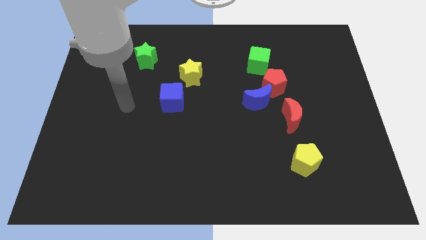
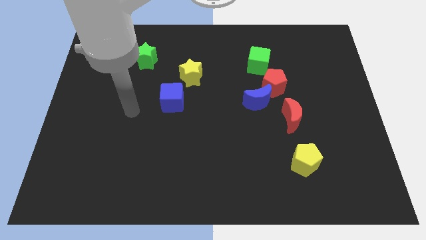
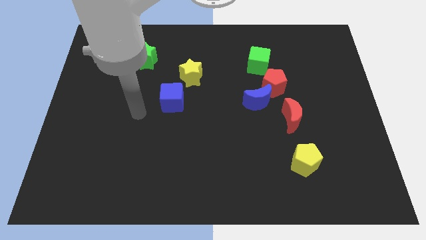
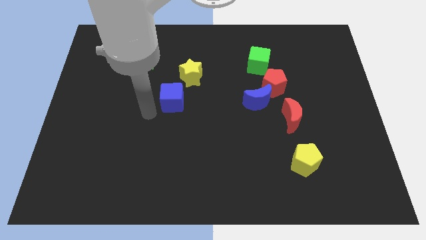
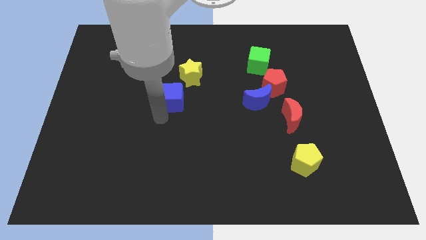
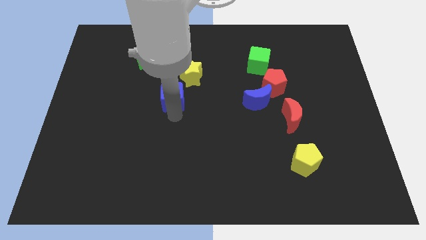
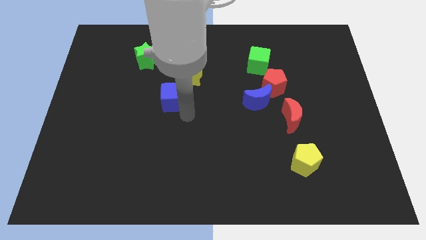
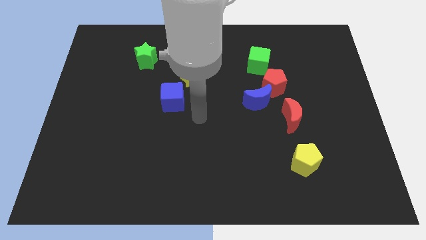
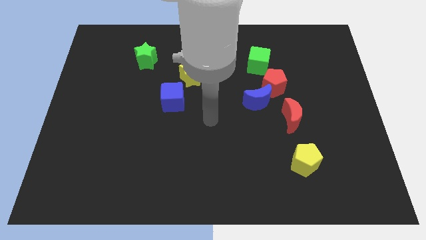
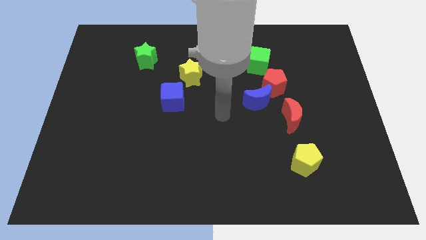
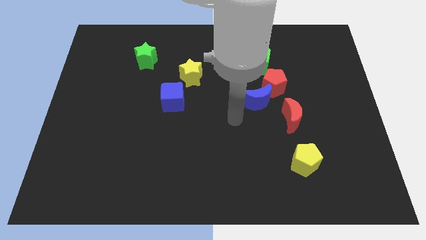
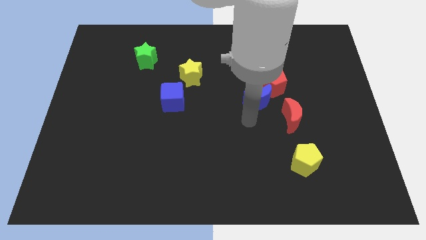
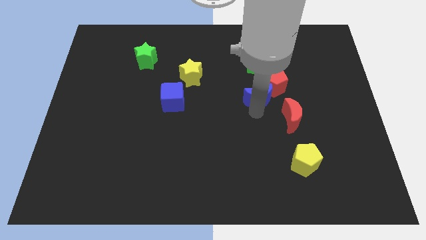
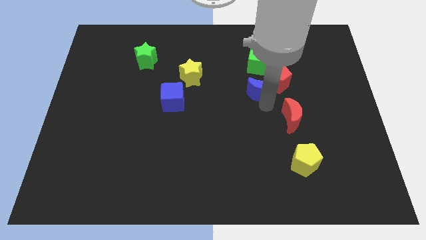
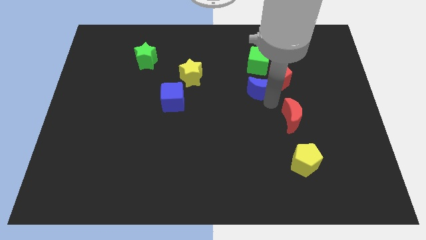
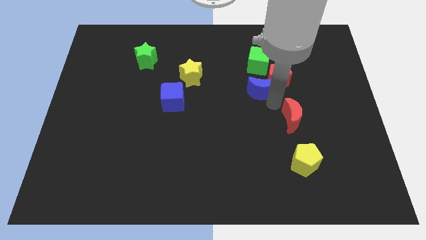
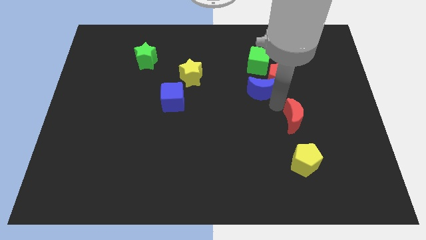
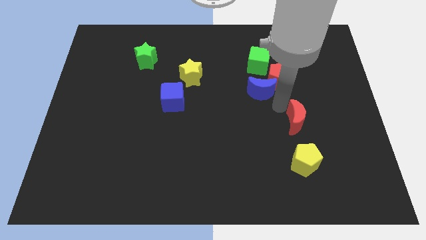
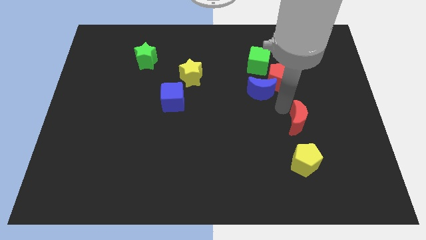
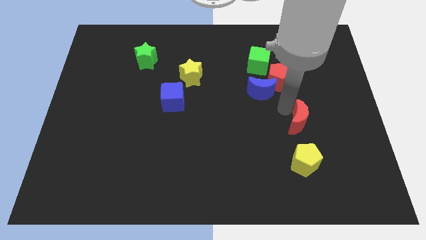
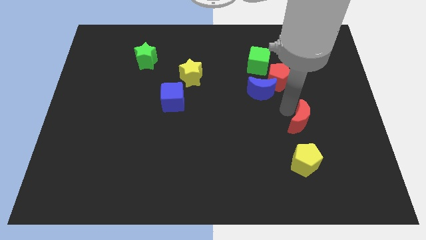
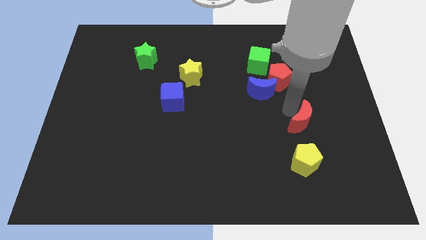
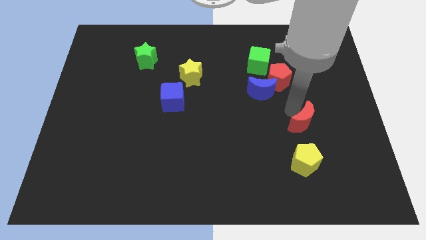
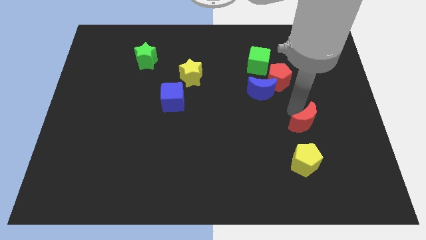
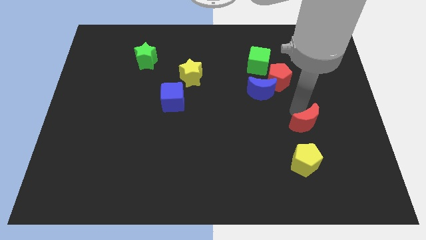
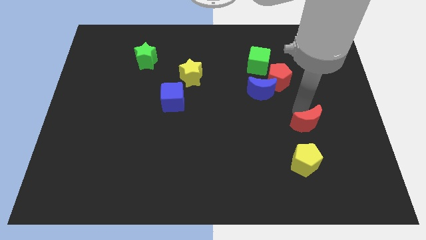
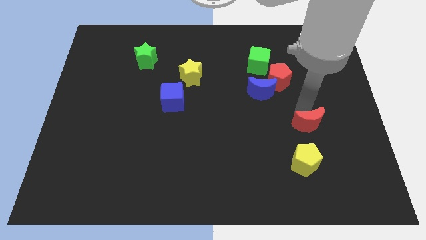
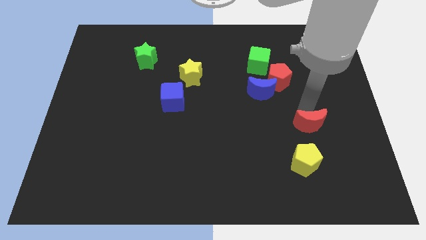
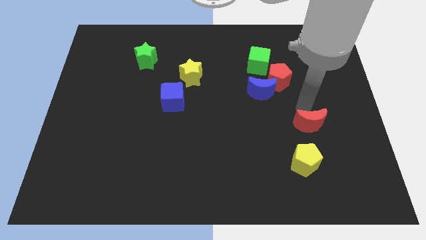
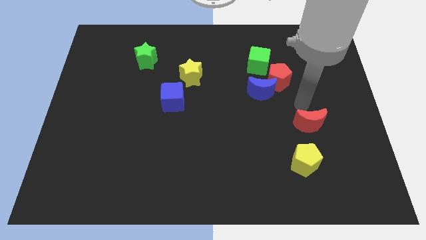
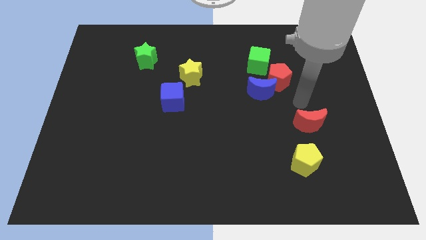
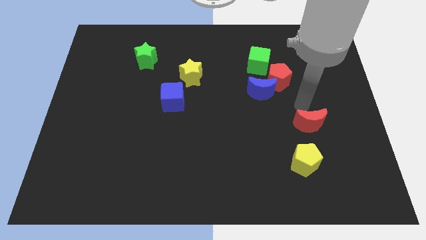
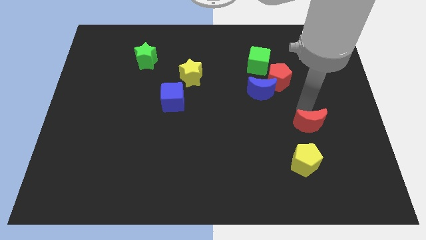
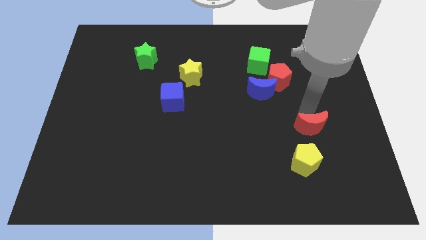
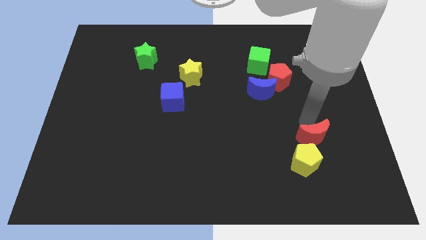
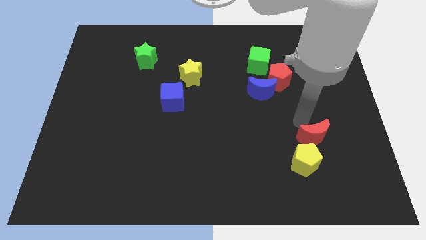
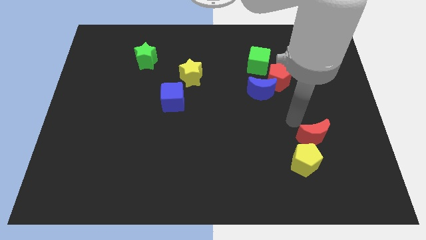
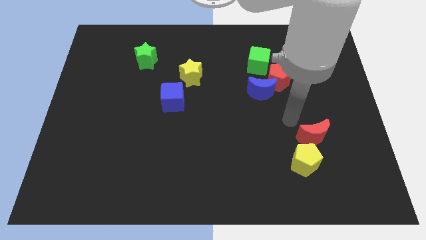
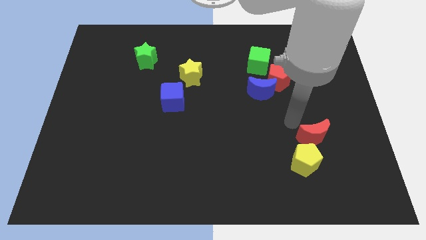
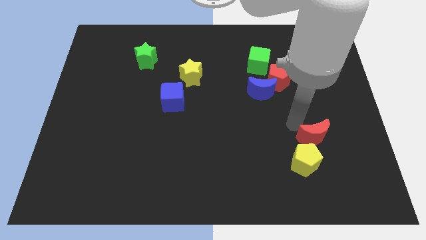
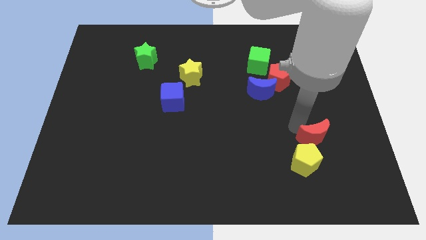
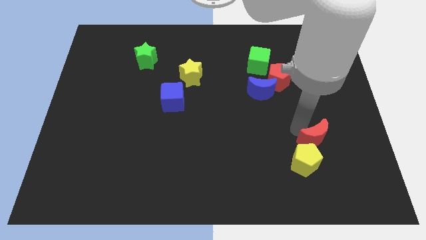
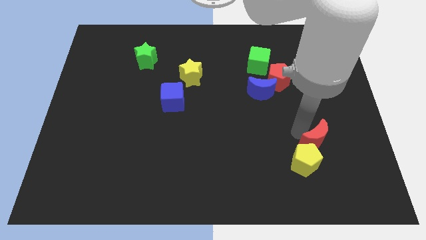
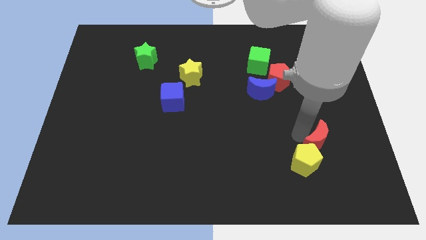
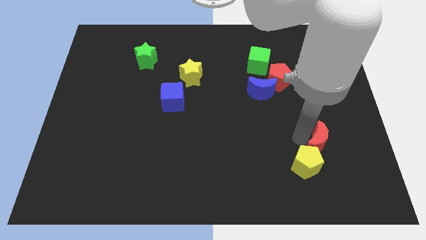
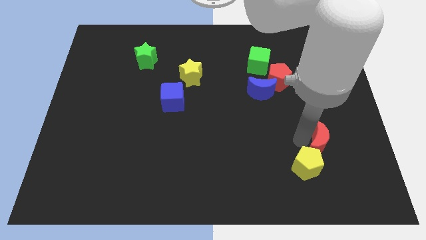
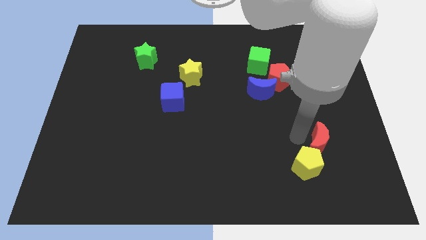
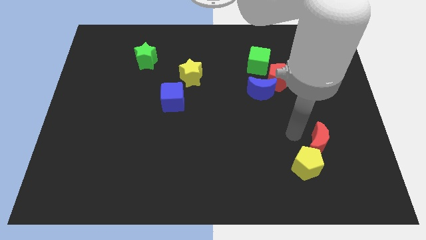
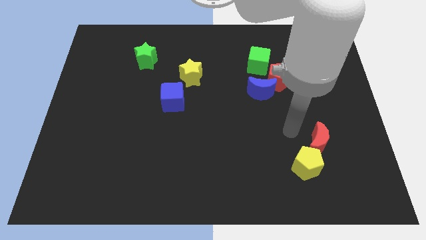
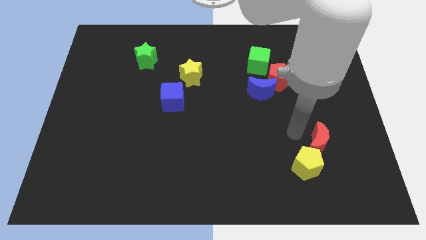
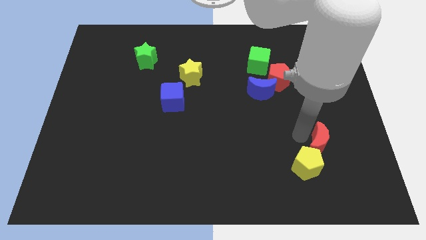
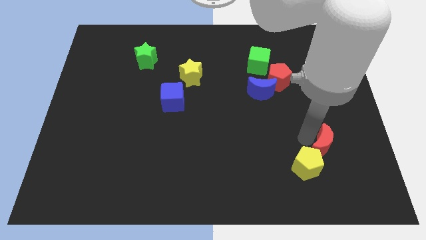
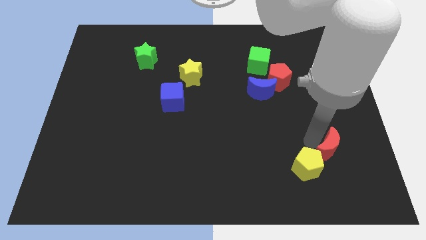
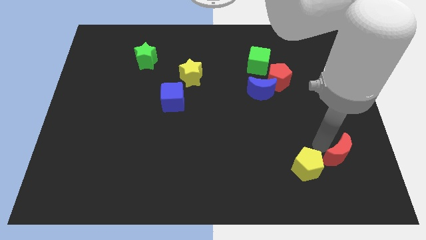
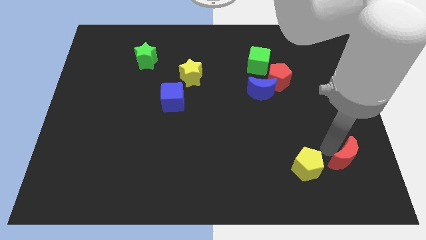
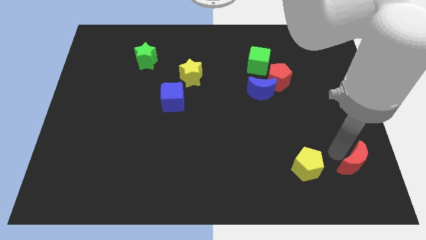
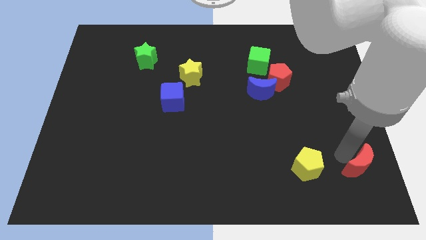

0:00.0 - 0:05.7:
slide the red moon to the bottom right
